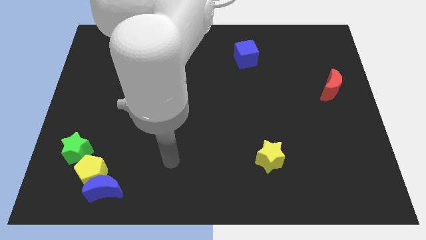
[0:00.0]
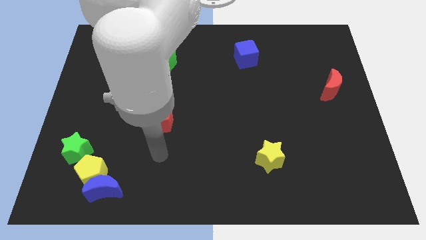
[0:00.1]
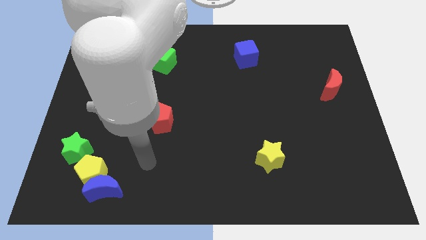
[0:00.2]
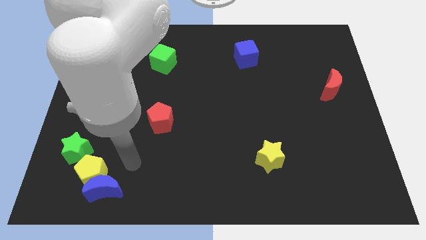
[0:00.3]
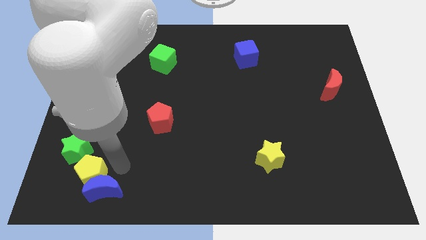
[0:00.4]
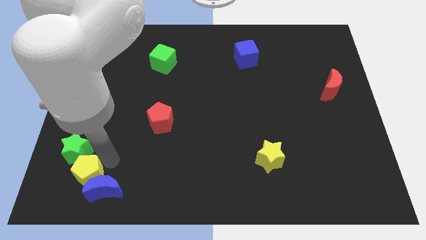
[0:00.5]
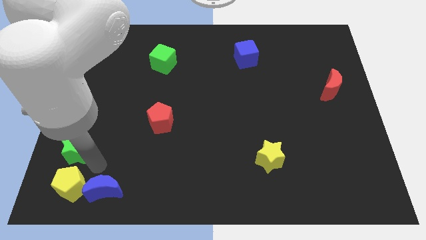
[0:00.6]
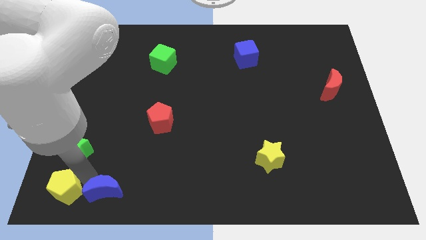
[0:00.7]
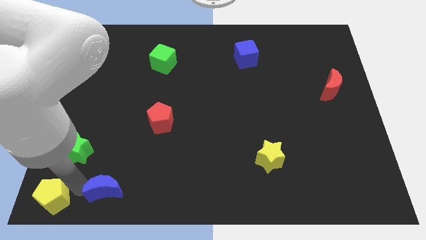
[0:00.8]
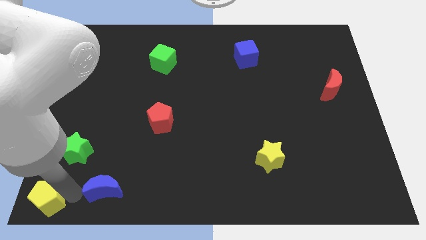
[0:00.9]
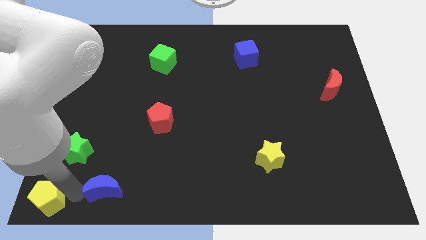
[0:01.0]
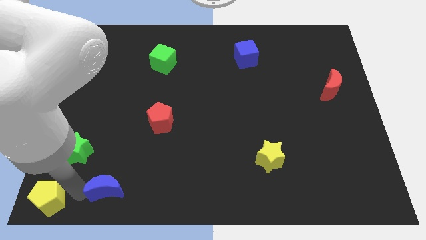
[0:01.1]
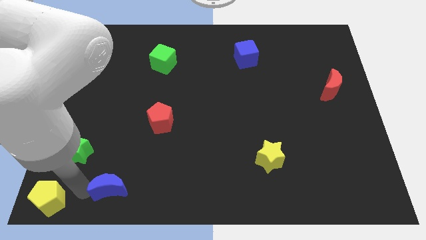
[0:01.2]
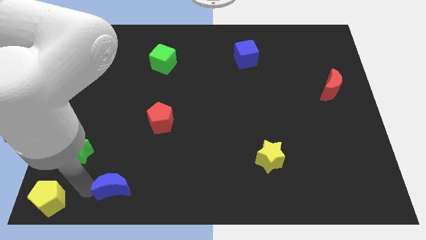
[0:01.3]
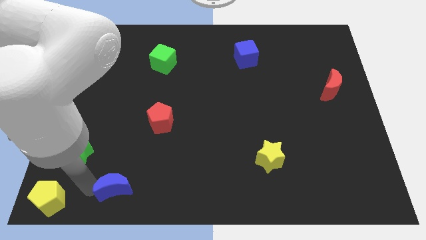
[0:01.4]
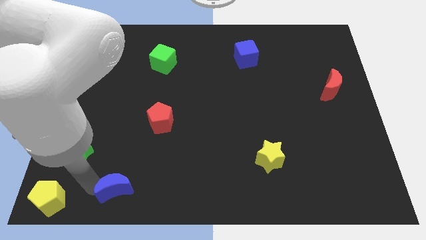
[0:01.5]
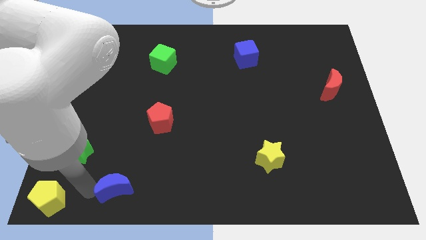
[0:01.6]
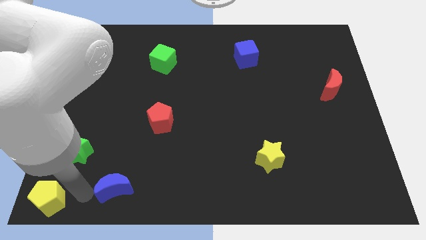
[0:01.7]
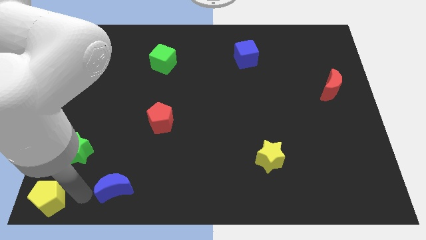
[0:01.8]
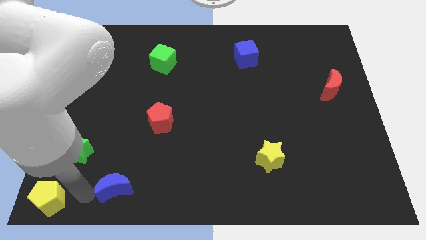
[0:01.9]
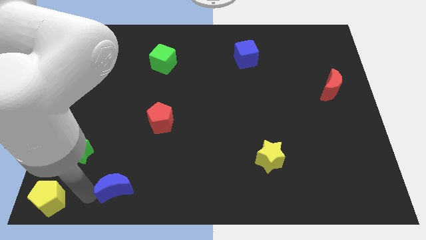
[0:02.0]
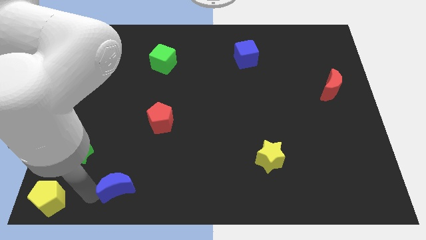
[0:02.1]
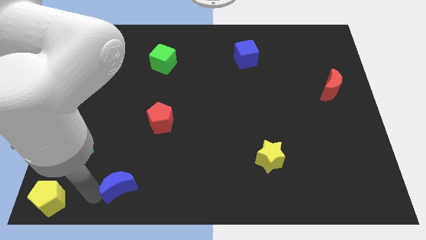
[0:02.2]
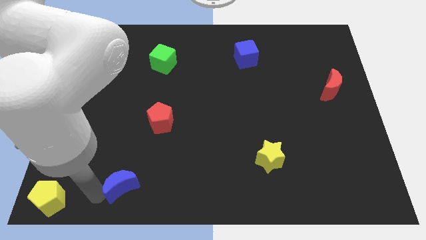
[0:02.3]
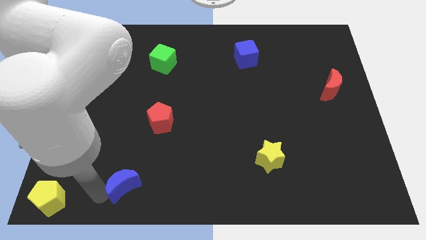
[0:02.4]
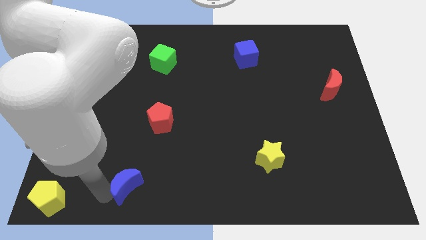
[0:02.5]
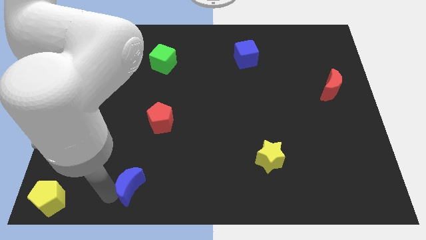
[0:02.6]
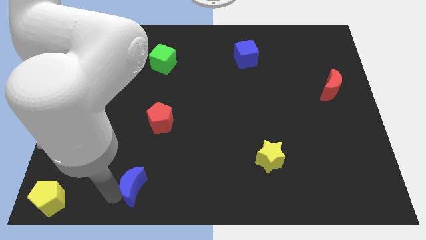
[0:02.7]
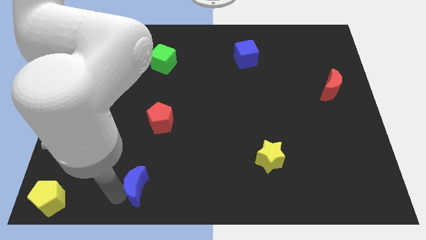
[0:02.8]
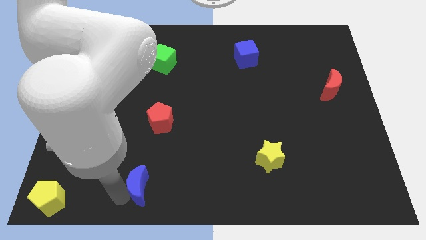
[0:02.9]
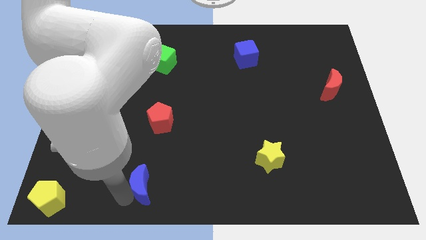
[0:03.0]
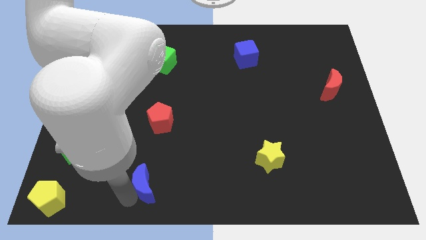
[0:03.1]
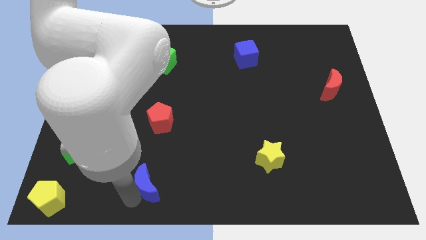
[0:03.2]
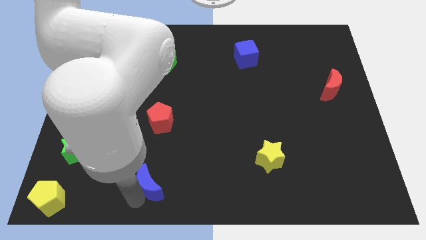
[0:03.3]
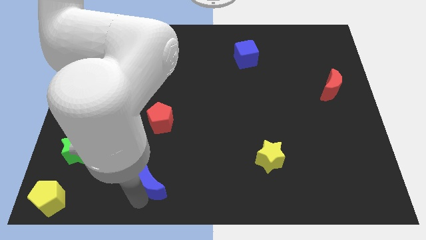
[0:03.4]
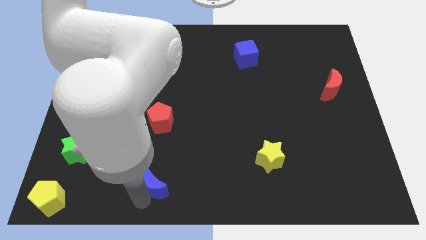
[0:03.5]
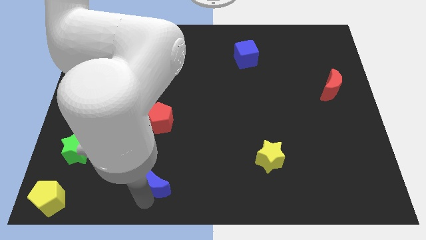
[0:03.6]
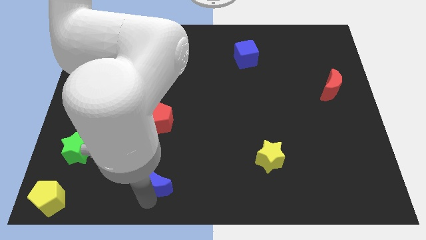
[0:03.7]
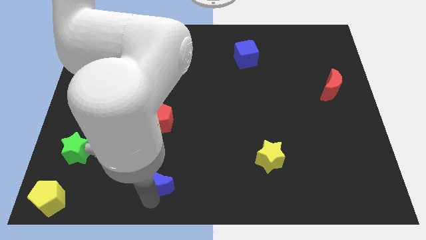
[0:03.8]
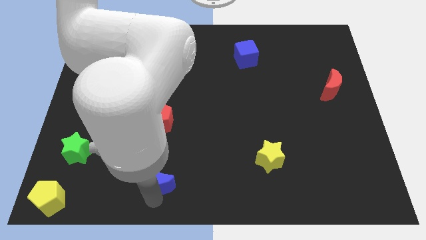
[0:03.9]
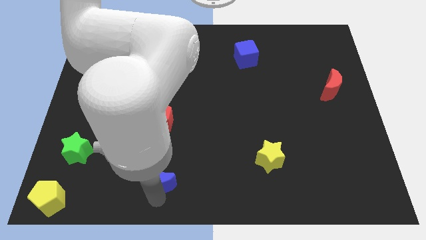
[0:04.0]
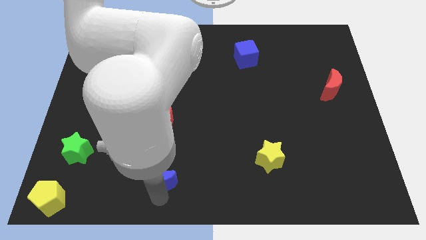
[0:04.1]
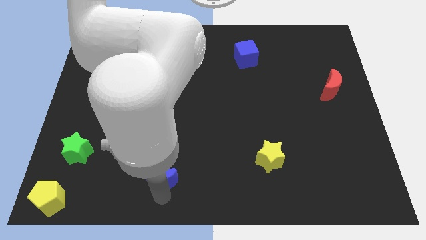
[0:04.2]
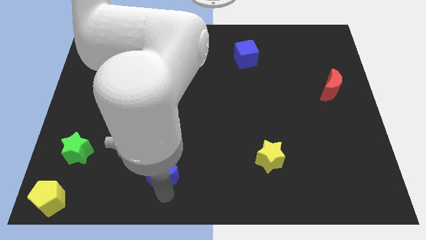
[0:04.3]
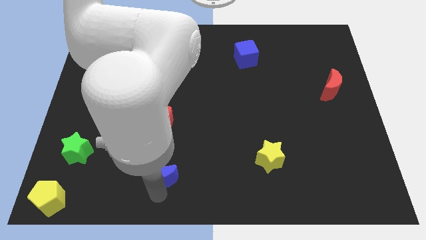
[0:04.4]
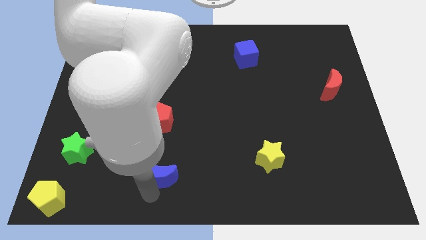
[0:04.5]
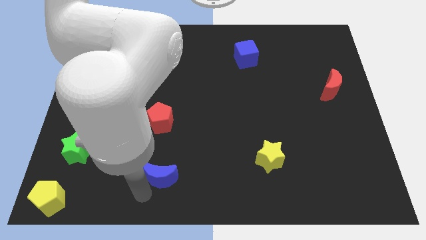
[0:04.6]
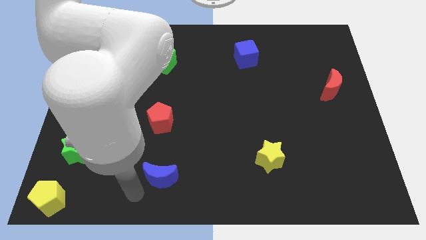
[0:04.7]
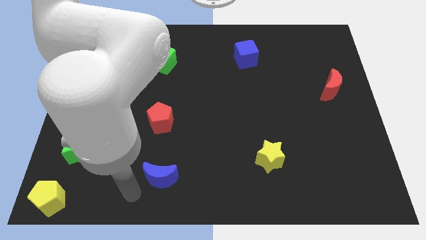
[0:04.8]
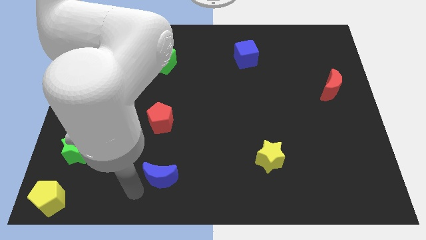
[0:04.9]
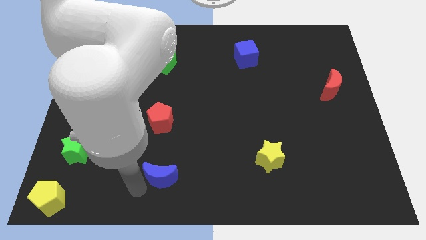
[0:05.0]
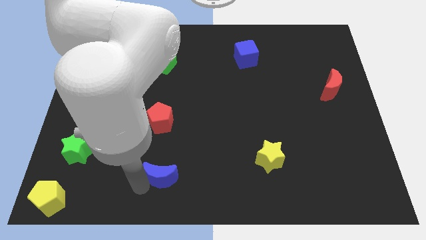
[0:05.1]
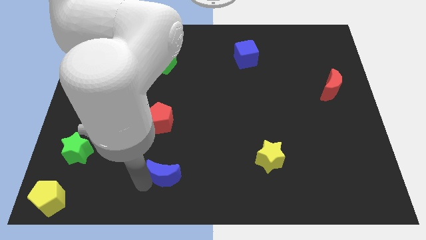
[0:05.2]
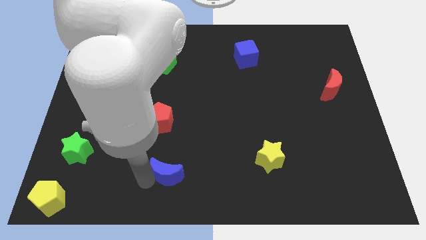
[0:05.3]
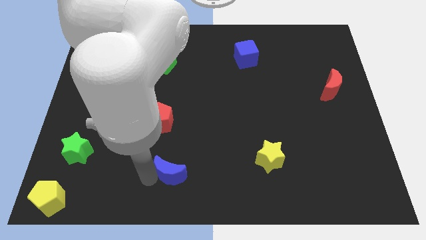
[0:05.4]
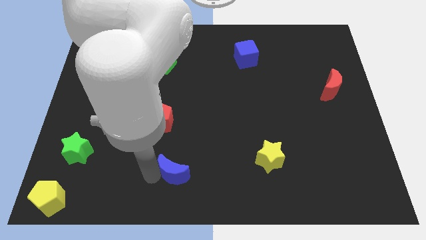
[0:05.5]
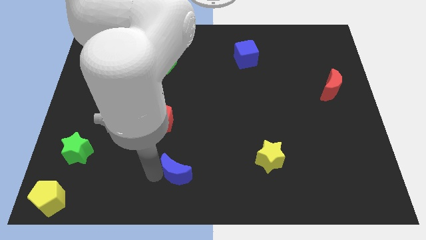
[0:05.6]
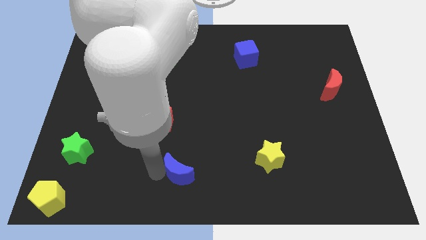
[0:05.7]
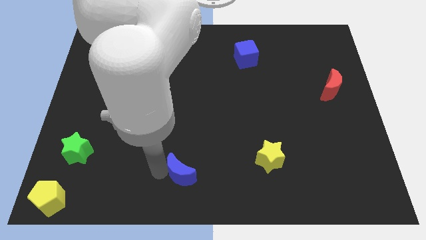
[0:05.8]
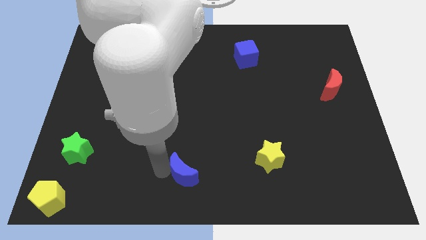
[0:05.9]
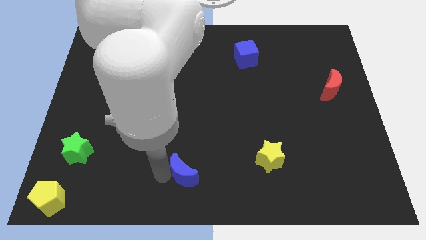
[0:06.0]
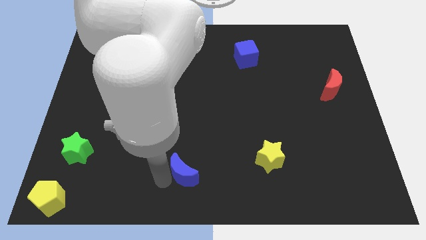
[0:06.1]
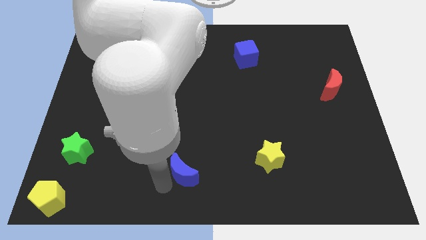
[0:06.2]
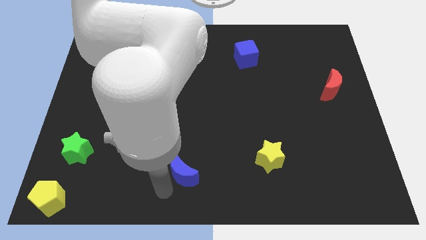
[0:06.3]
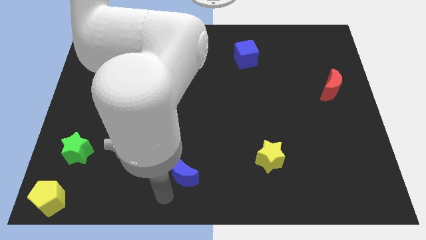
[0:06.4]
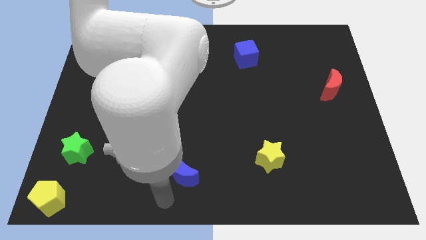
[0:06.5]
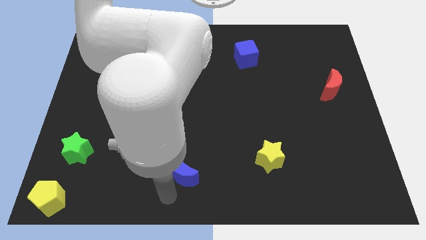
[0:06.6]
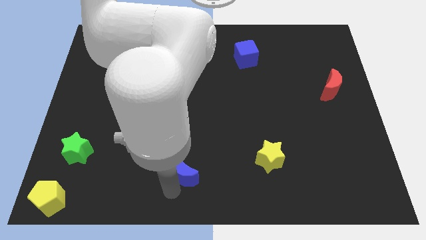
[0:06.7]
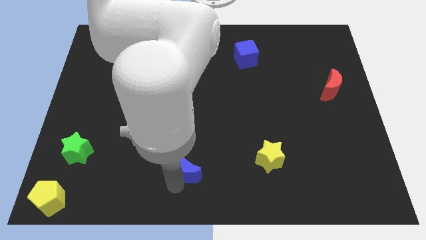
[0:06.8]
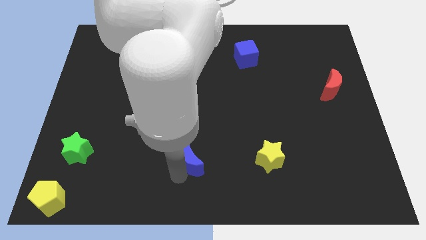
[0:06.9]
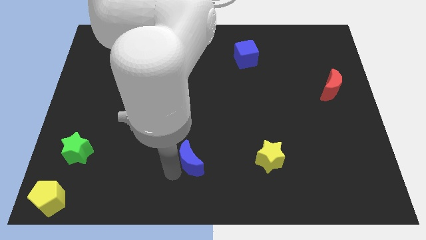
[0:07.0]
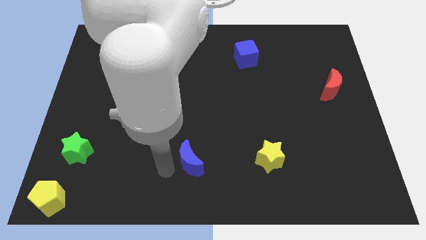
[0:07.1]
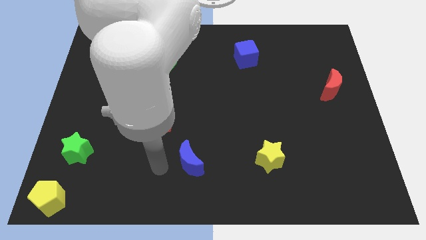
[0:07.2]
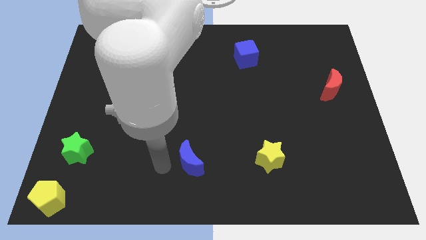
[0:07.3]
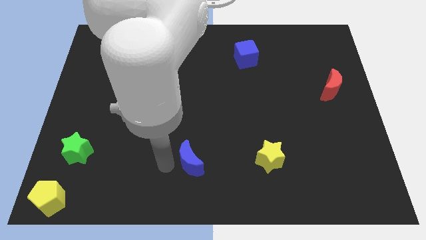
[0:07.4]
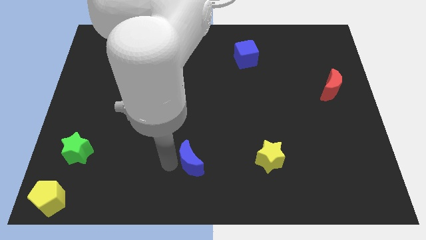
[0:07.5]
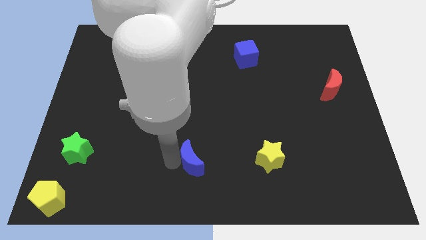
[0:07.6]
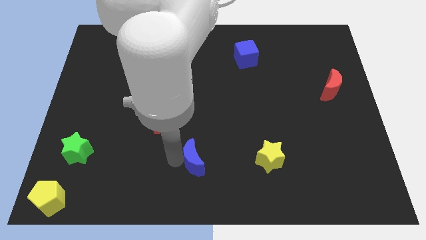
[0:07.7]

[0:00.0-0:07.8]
push the blue moon left of the yellow star

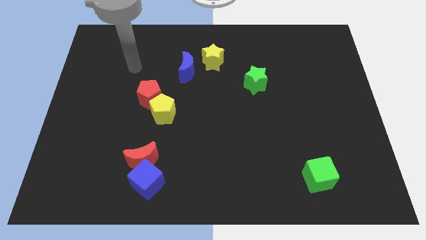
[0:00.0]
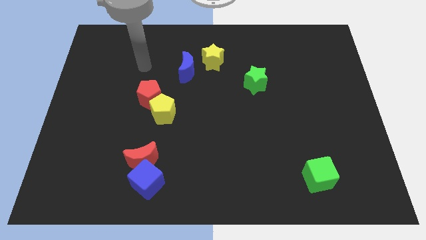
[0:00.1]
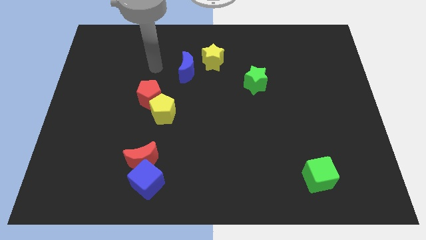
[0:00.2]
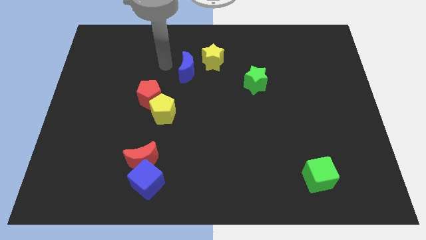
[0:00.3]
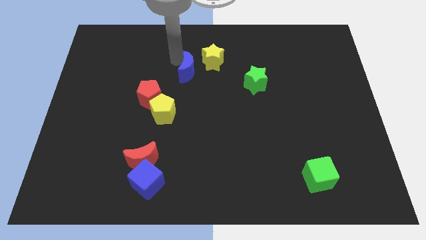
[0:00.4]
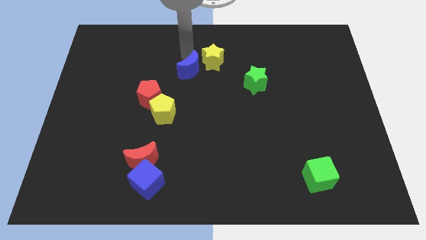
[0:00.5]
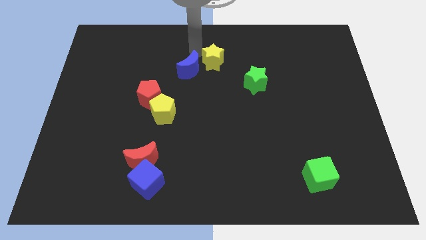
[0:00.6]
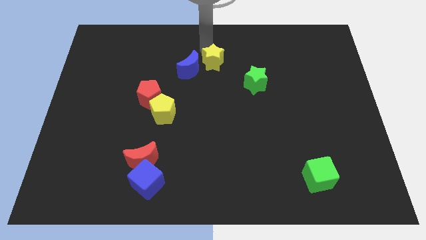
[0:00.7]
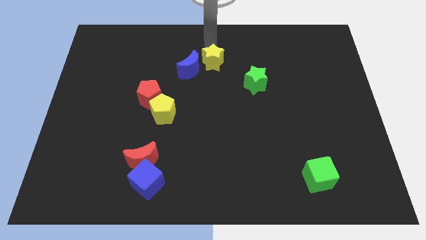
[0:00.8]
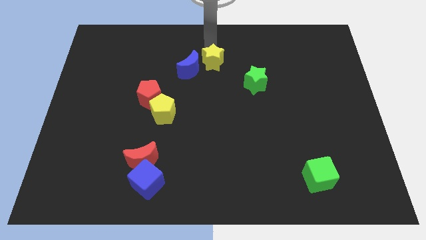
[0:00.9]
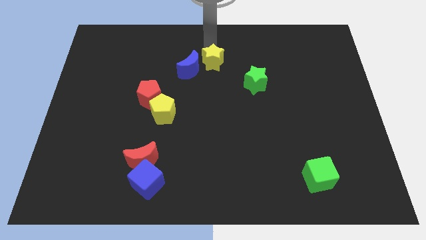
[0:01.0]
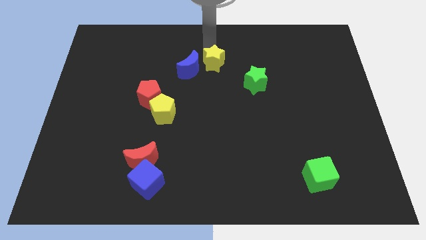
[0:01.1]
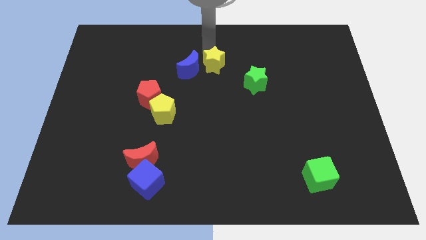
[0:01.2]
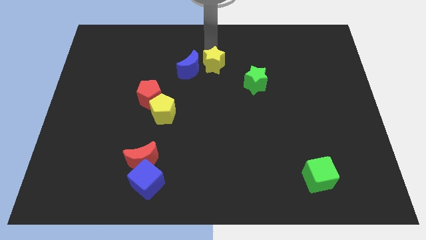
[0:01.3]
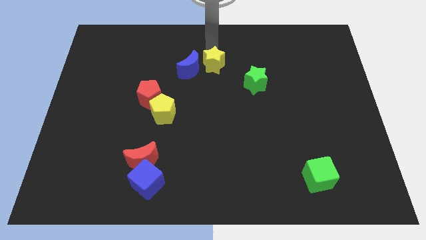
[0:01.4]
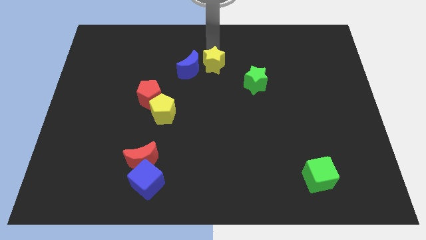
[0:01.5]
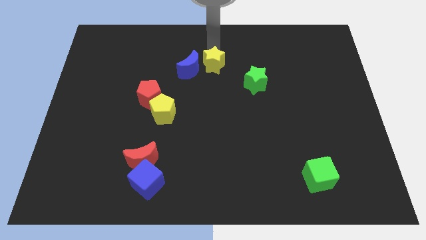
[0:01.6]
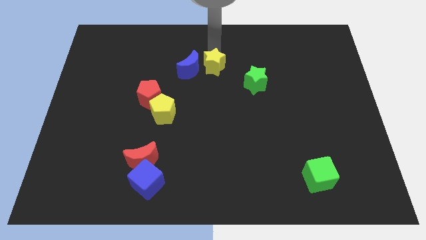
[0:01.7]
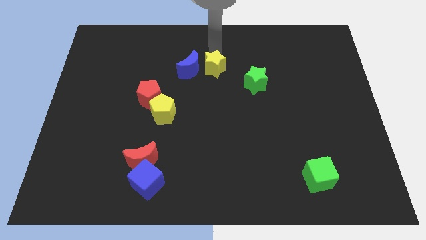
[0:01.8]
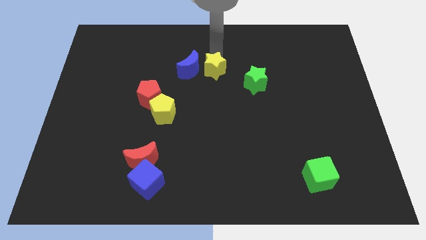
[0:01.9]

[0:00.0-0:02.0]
put the yellow star to the left of the green star
